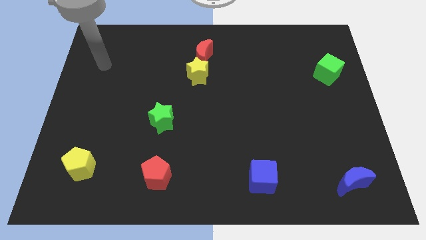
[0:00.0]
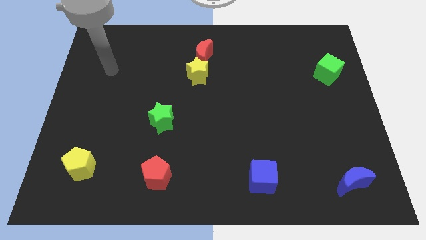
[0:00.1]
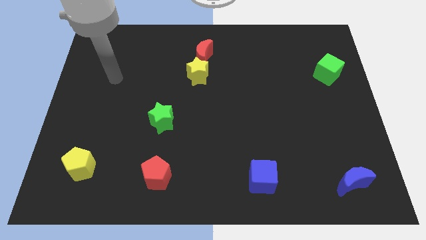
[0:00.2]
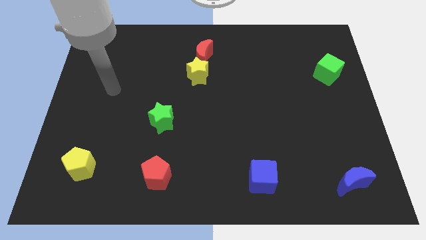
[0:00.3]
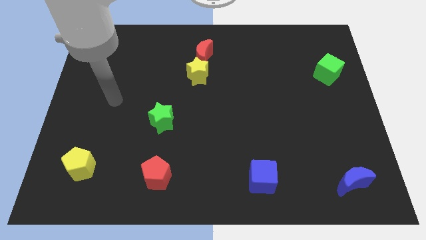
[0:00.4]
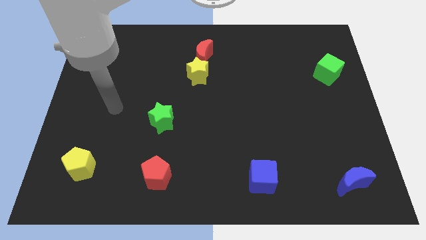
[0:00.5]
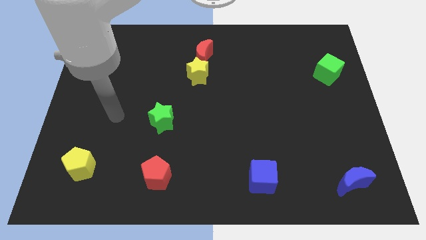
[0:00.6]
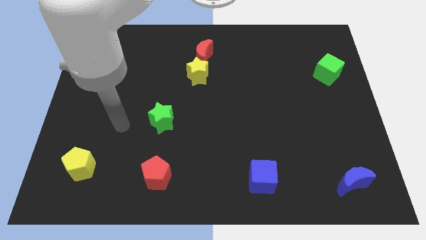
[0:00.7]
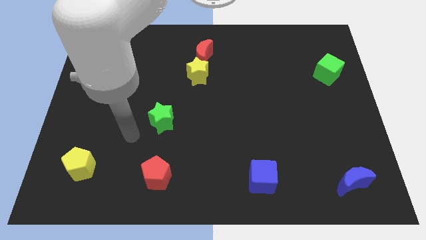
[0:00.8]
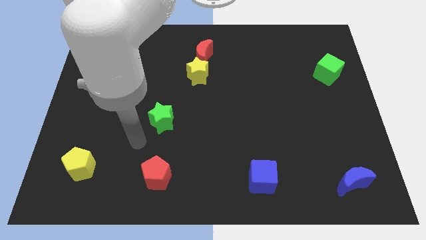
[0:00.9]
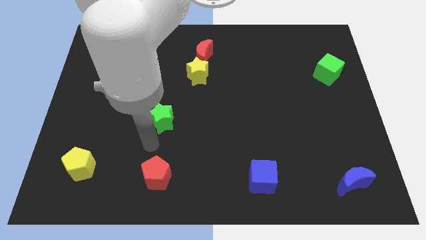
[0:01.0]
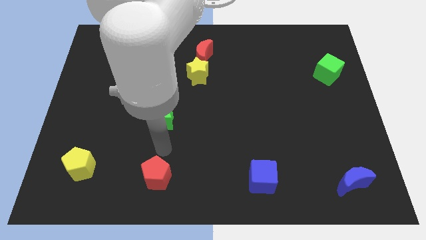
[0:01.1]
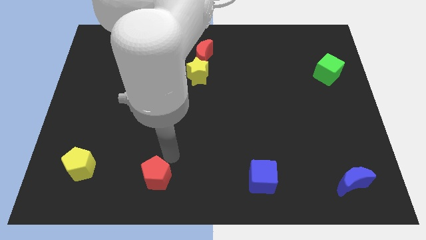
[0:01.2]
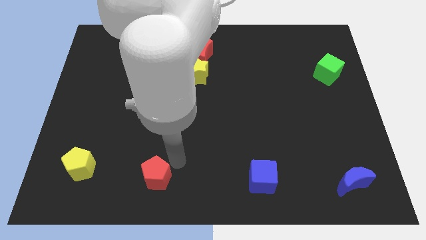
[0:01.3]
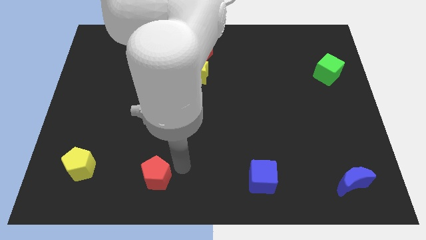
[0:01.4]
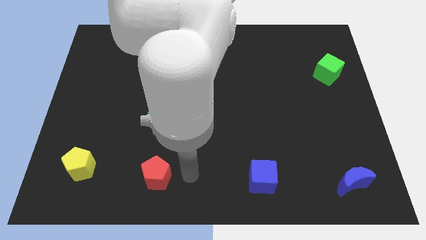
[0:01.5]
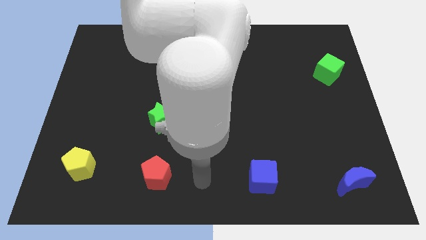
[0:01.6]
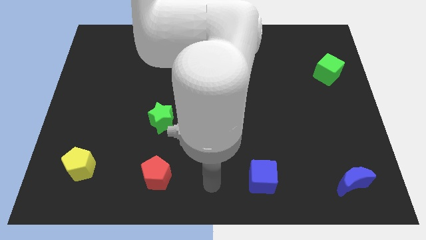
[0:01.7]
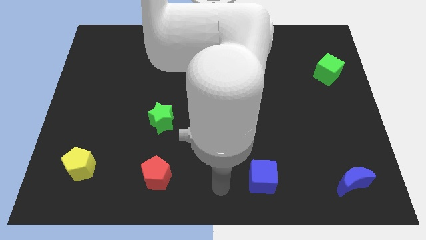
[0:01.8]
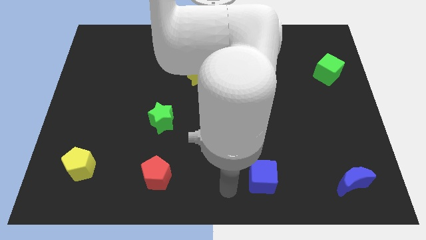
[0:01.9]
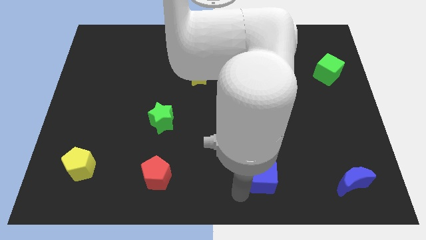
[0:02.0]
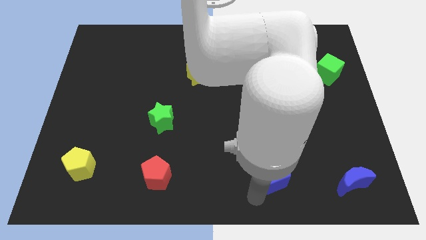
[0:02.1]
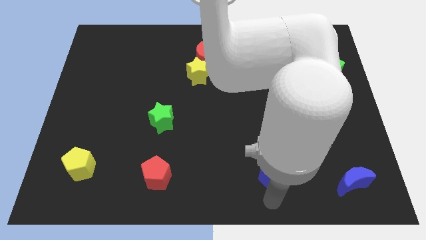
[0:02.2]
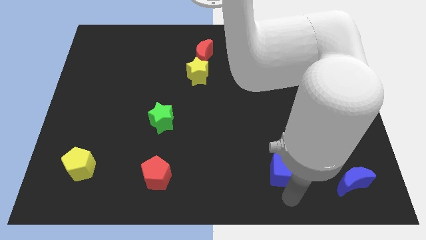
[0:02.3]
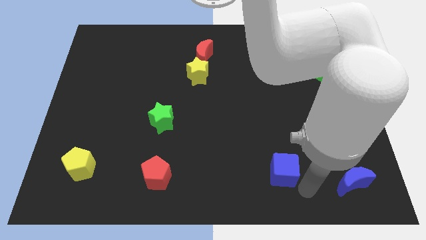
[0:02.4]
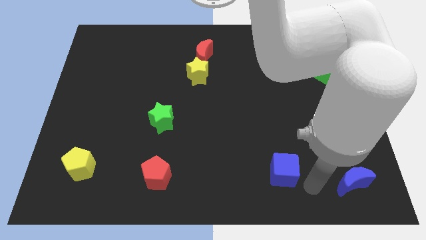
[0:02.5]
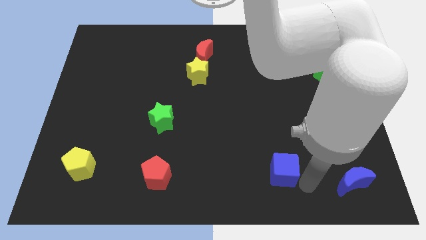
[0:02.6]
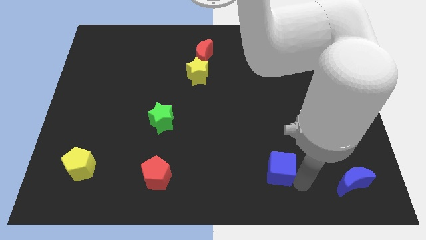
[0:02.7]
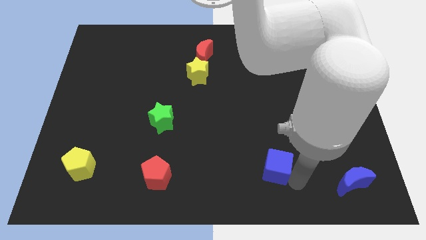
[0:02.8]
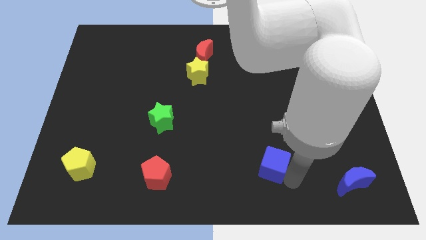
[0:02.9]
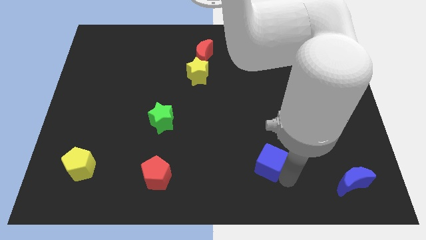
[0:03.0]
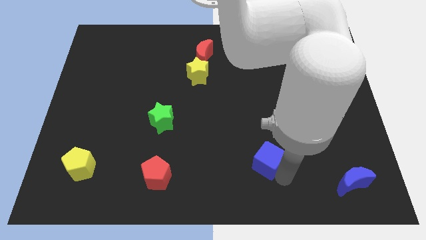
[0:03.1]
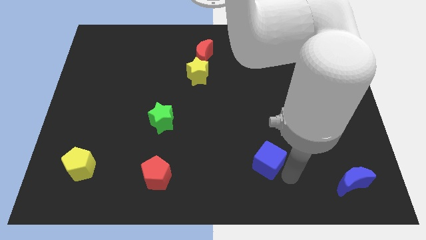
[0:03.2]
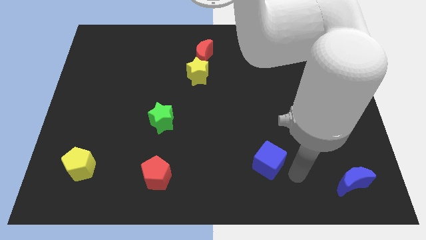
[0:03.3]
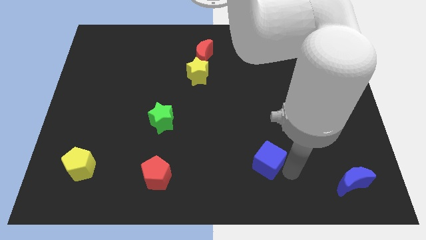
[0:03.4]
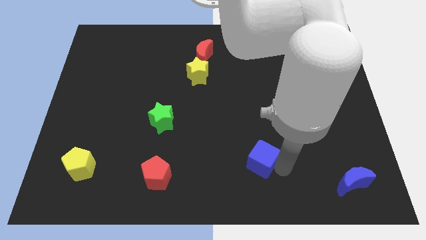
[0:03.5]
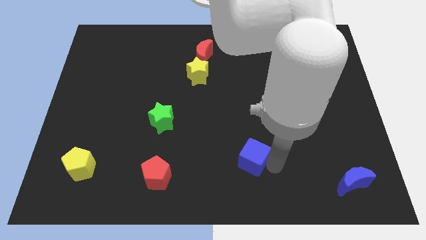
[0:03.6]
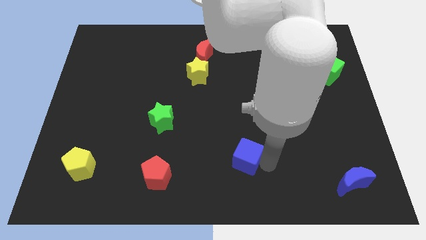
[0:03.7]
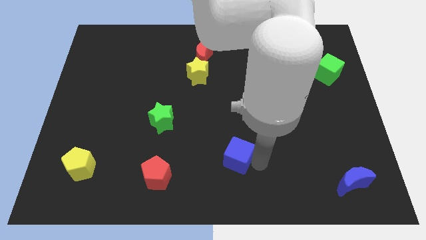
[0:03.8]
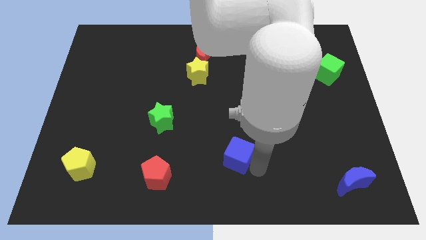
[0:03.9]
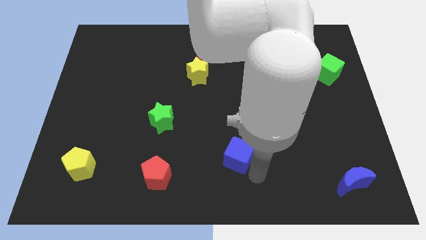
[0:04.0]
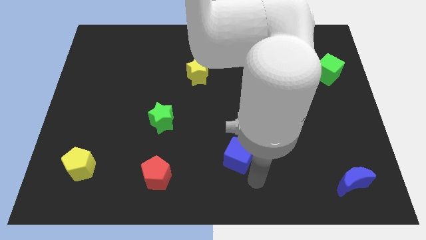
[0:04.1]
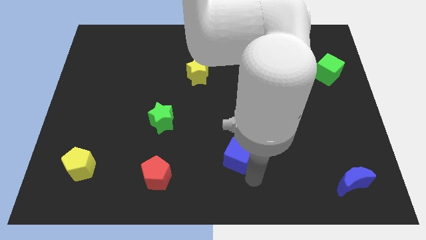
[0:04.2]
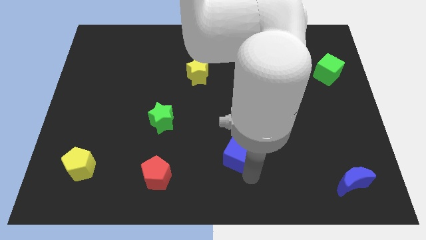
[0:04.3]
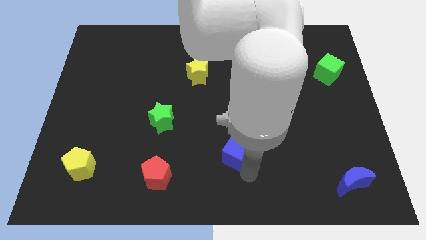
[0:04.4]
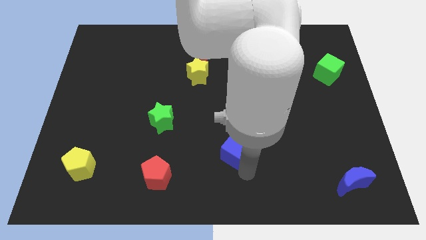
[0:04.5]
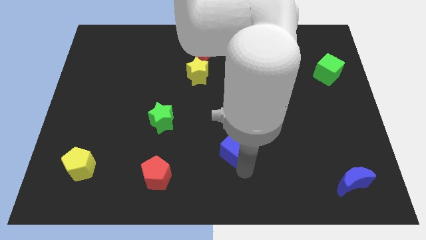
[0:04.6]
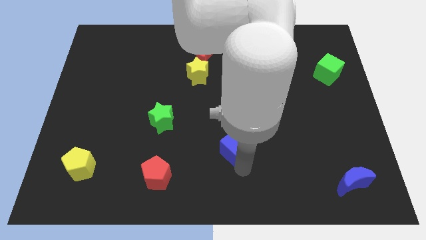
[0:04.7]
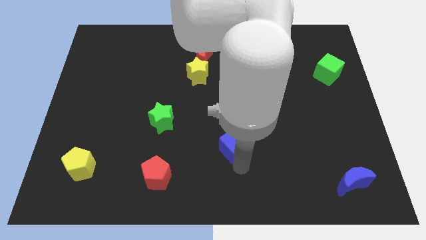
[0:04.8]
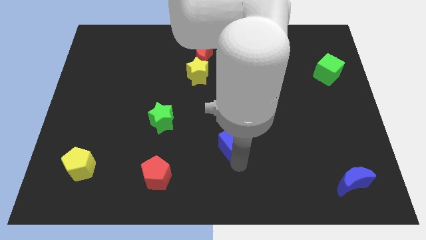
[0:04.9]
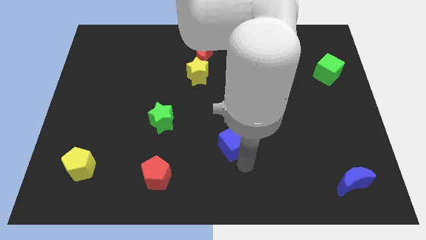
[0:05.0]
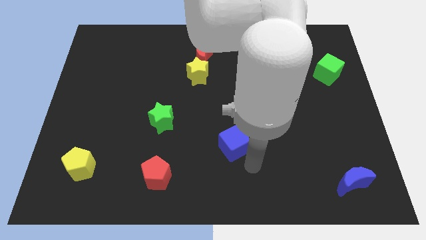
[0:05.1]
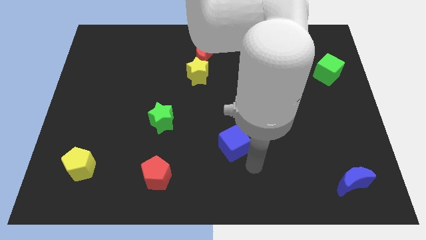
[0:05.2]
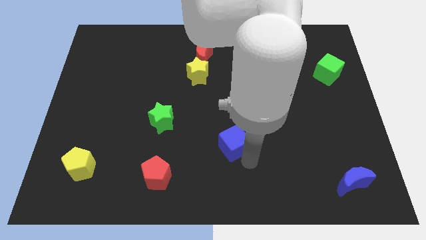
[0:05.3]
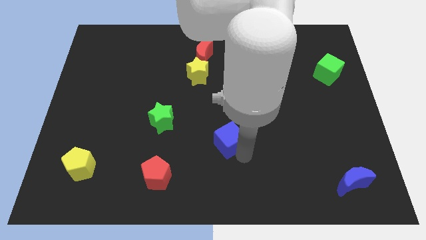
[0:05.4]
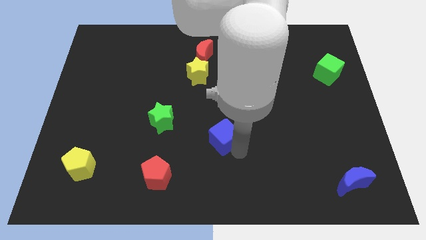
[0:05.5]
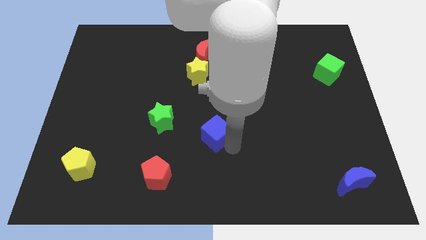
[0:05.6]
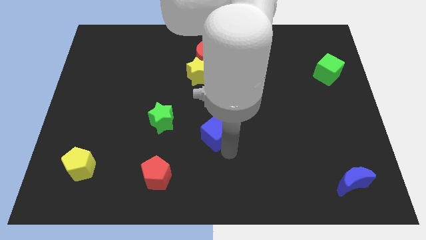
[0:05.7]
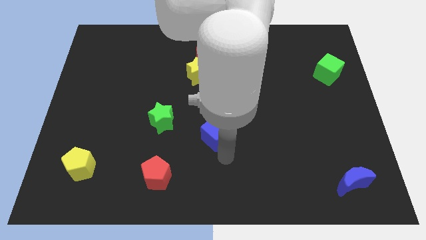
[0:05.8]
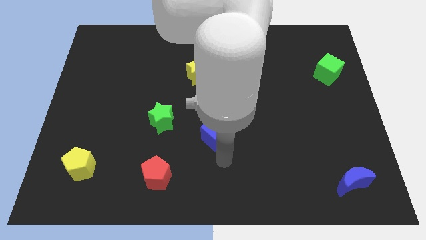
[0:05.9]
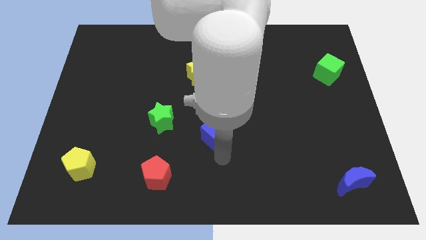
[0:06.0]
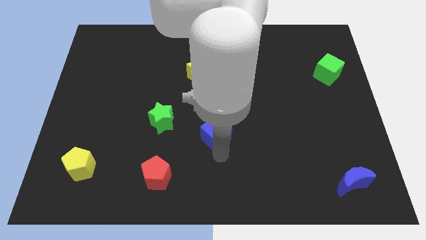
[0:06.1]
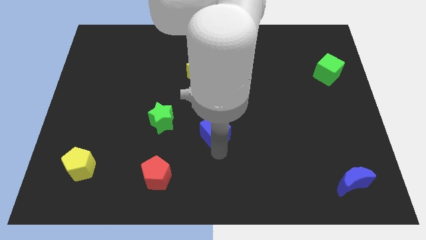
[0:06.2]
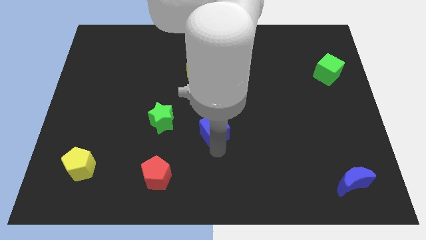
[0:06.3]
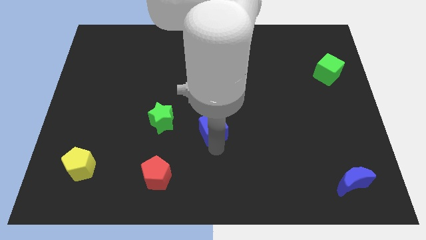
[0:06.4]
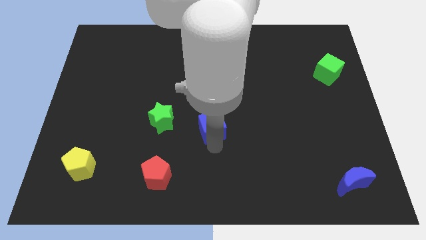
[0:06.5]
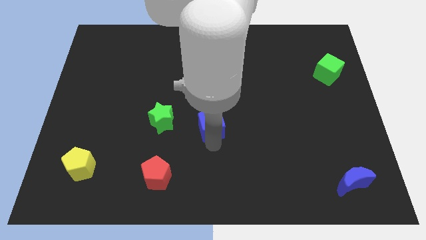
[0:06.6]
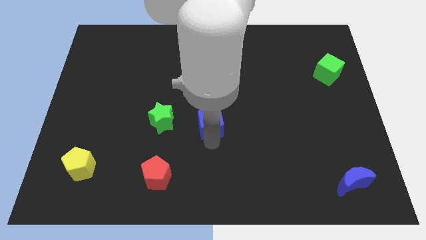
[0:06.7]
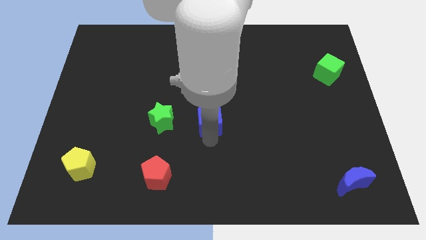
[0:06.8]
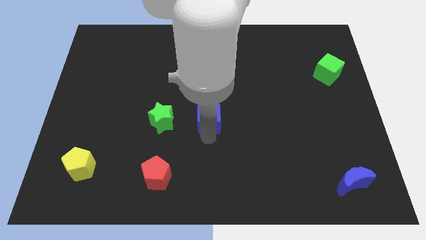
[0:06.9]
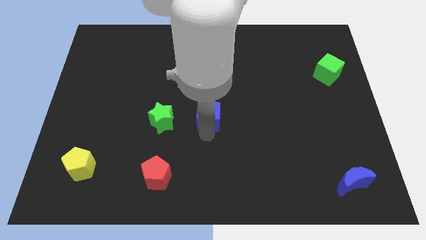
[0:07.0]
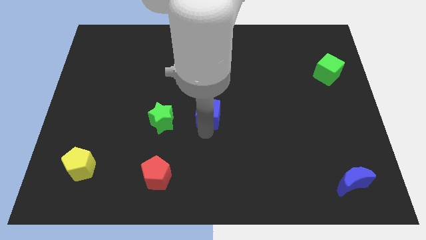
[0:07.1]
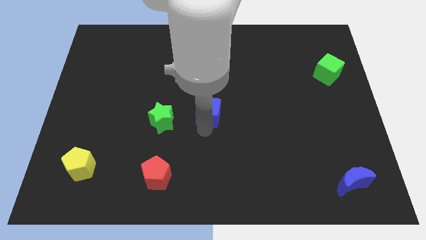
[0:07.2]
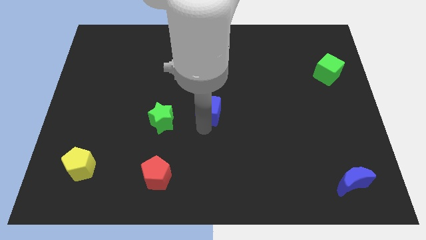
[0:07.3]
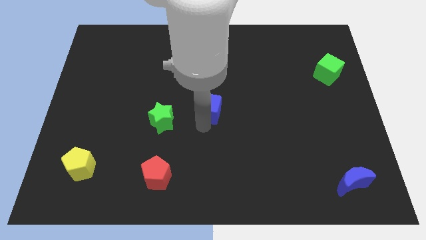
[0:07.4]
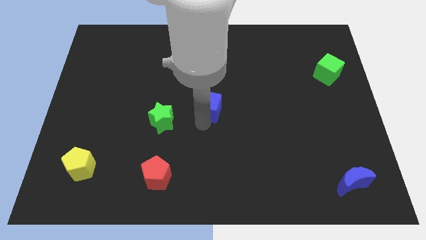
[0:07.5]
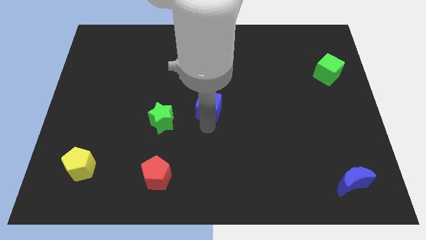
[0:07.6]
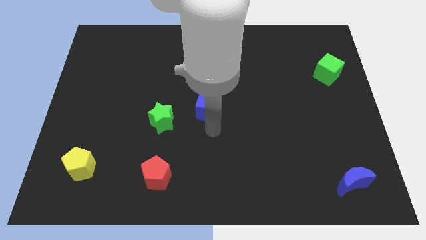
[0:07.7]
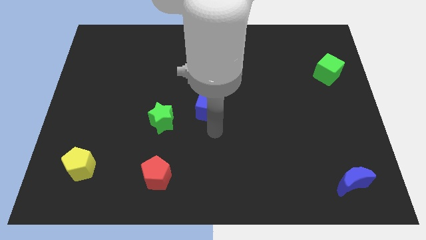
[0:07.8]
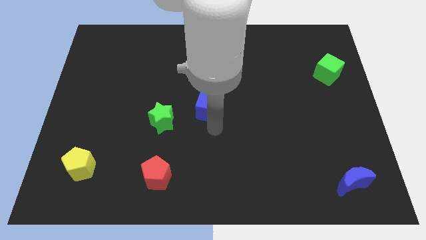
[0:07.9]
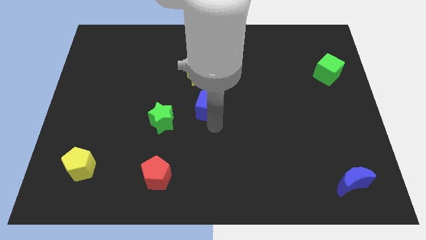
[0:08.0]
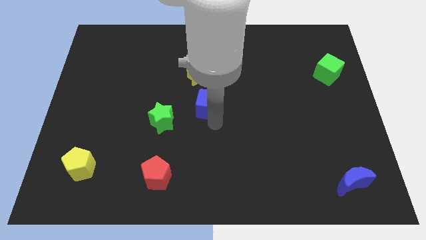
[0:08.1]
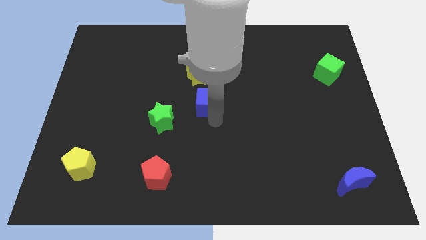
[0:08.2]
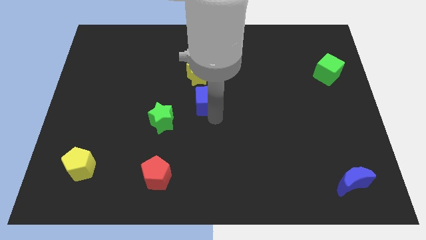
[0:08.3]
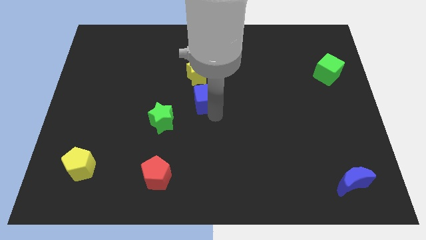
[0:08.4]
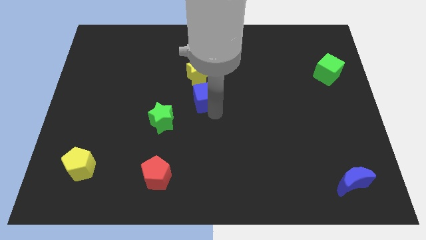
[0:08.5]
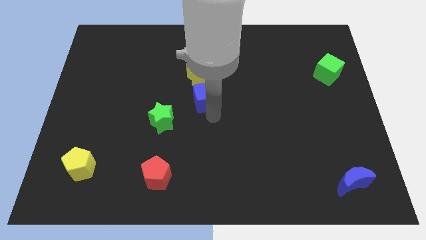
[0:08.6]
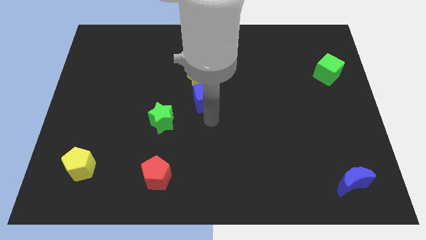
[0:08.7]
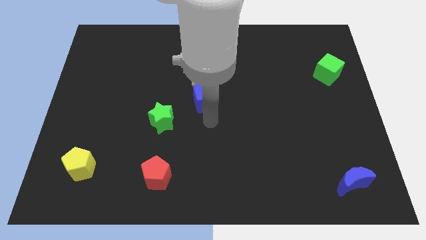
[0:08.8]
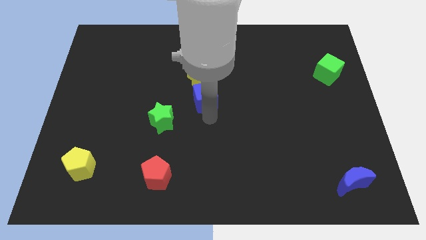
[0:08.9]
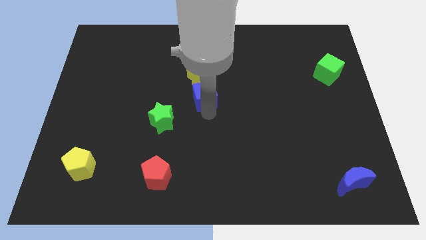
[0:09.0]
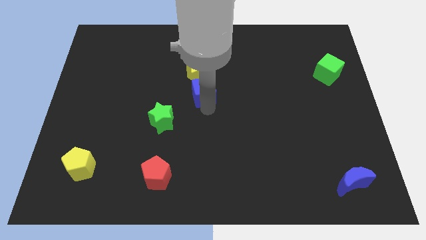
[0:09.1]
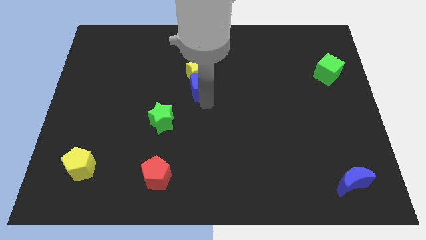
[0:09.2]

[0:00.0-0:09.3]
put the blue cube next to the yellow star
